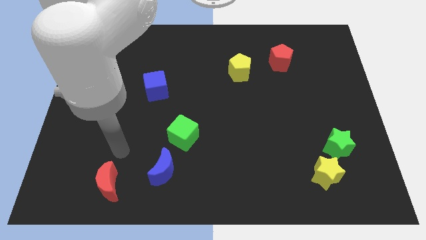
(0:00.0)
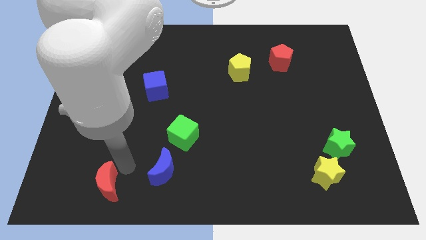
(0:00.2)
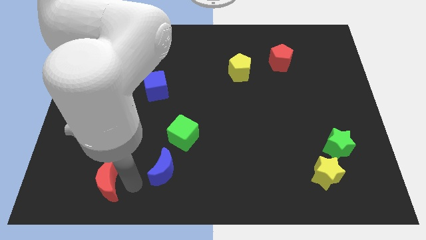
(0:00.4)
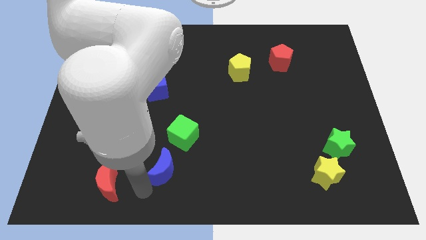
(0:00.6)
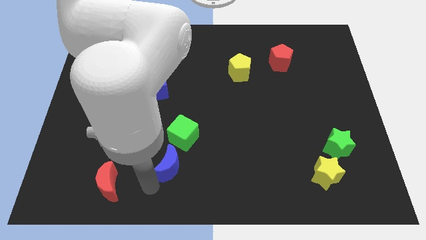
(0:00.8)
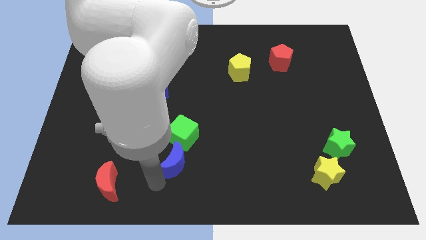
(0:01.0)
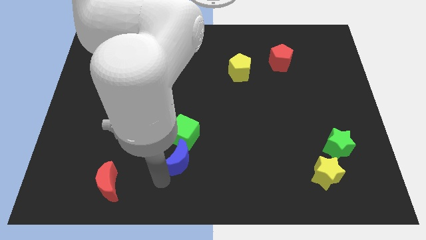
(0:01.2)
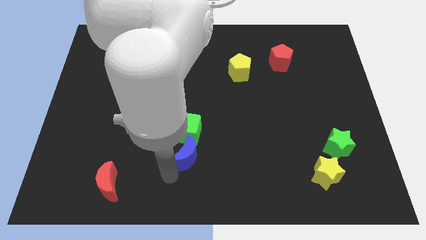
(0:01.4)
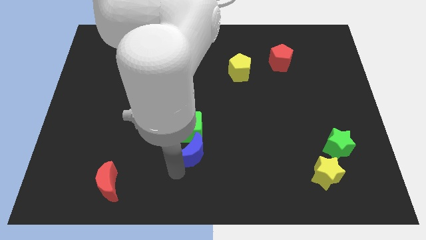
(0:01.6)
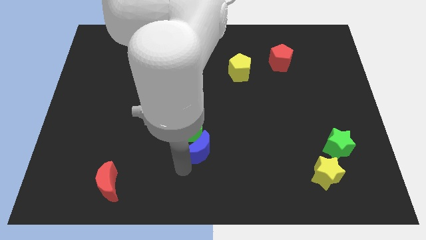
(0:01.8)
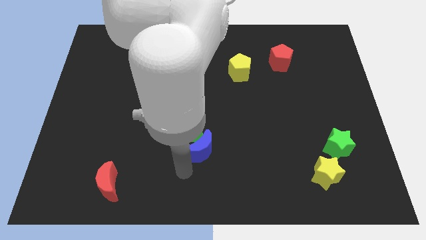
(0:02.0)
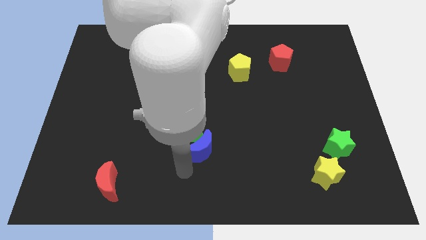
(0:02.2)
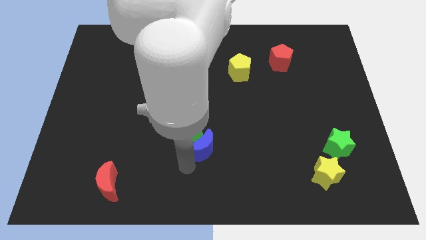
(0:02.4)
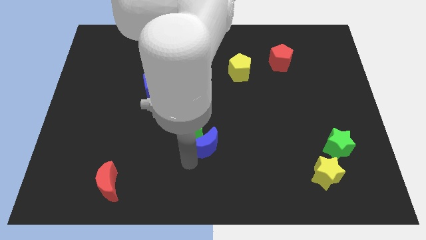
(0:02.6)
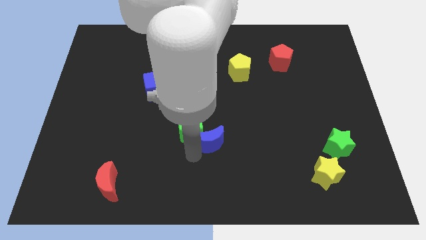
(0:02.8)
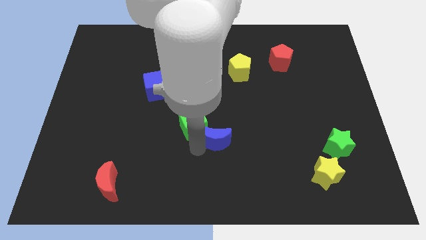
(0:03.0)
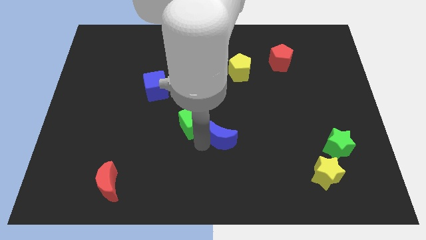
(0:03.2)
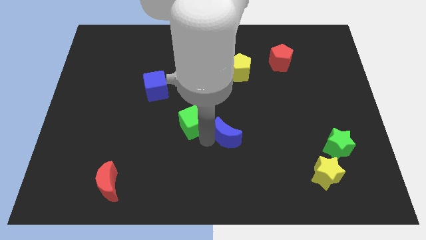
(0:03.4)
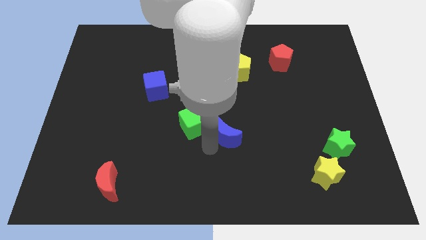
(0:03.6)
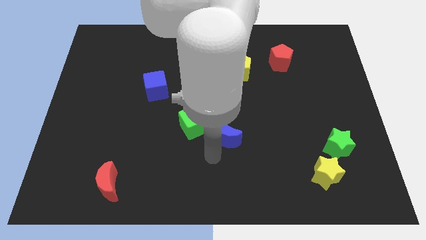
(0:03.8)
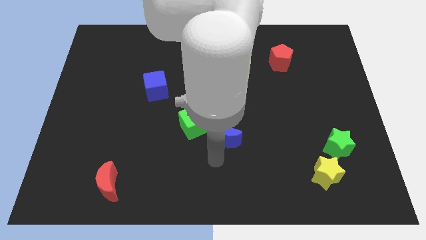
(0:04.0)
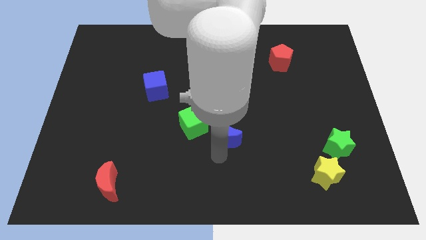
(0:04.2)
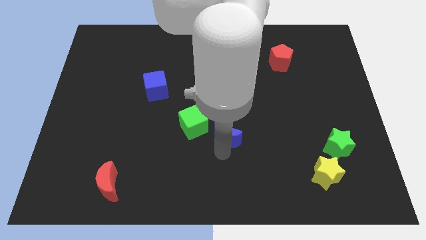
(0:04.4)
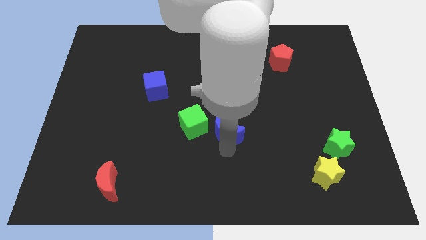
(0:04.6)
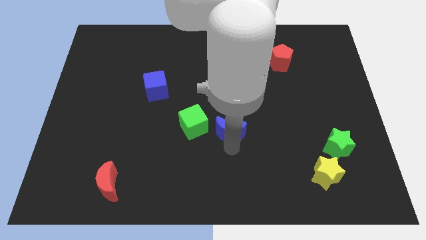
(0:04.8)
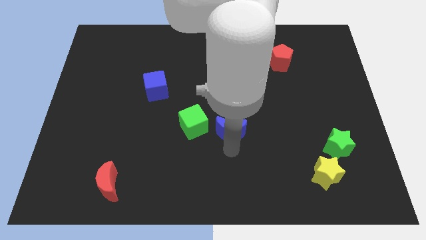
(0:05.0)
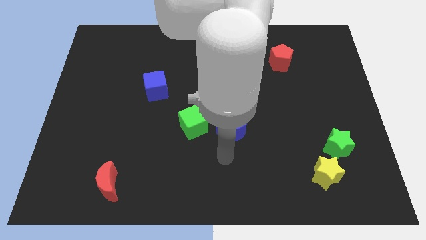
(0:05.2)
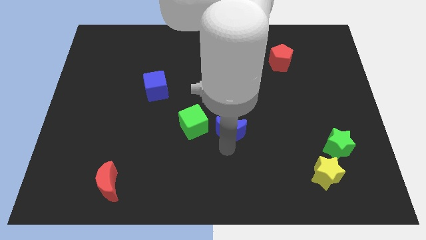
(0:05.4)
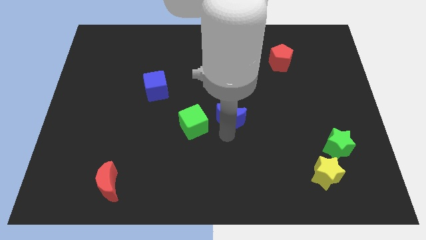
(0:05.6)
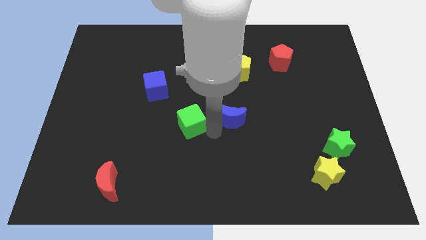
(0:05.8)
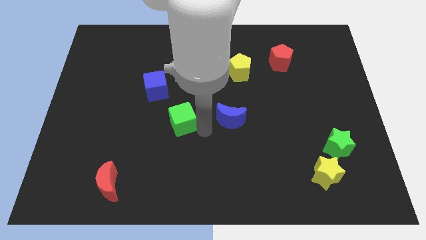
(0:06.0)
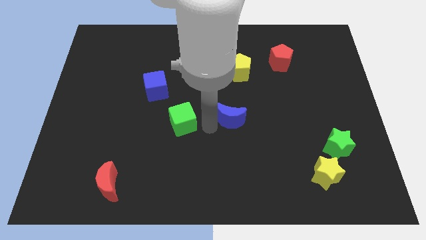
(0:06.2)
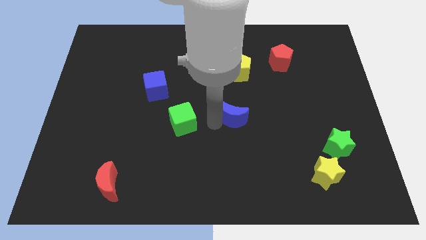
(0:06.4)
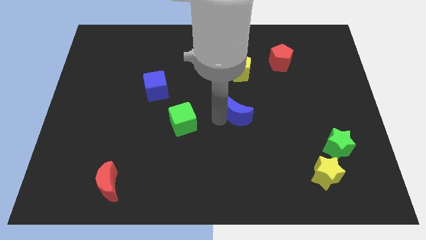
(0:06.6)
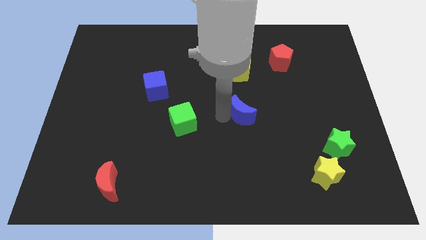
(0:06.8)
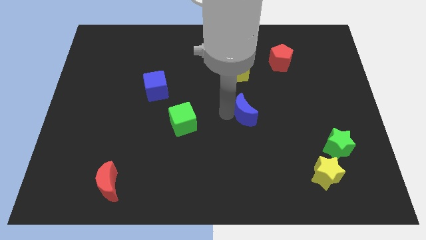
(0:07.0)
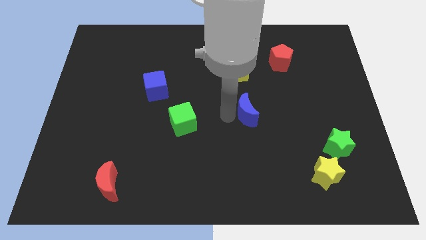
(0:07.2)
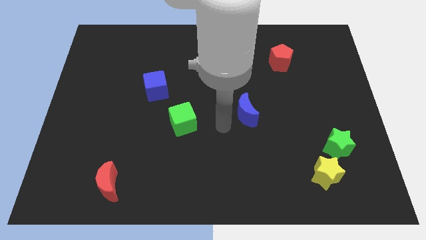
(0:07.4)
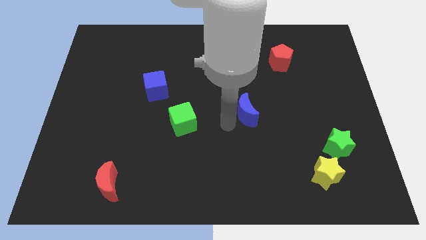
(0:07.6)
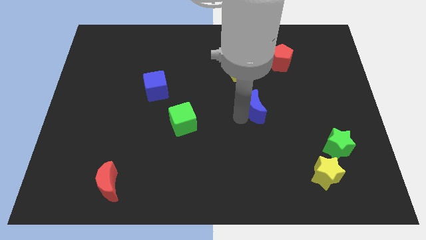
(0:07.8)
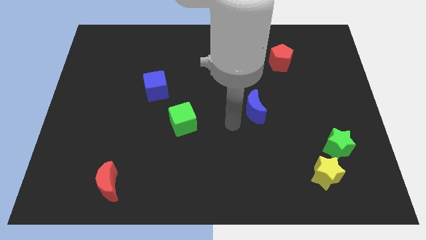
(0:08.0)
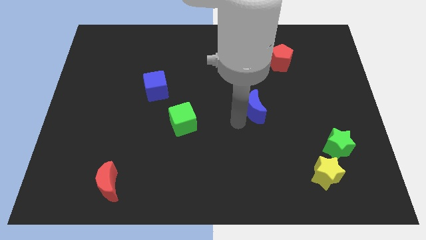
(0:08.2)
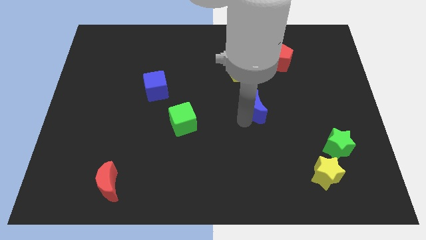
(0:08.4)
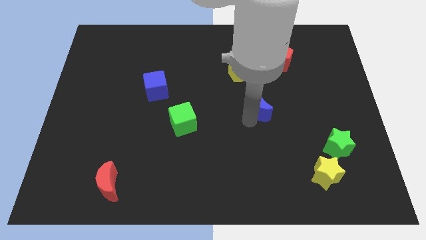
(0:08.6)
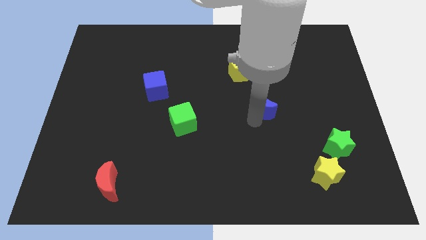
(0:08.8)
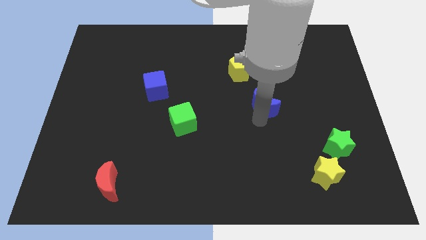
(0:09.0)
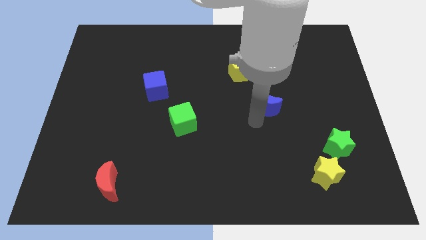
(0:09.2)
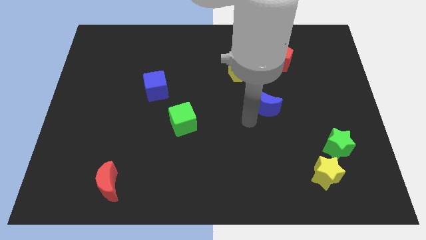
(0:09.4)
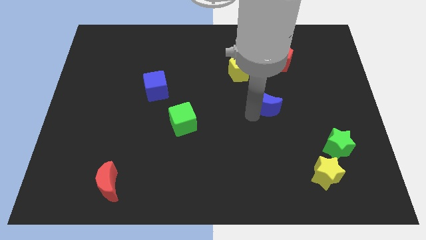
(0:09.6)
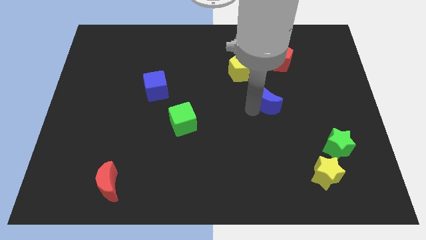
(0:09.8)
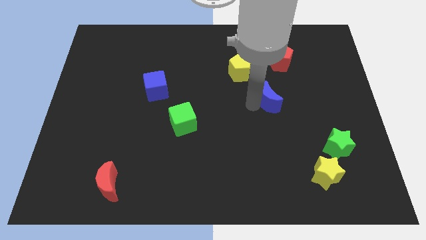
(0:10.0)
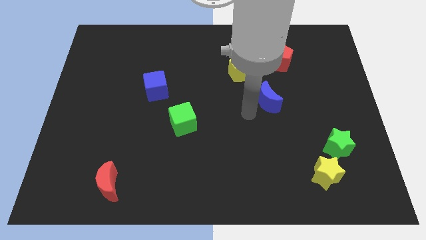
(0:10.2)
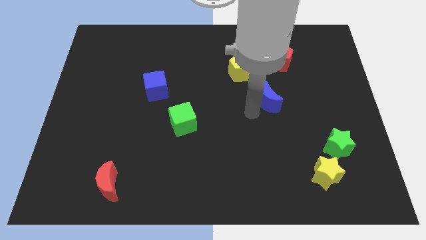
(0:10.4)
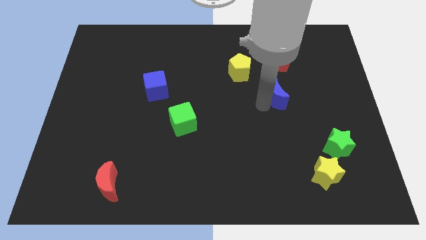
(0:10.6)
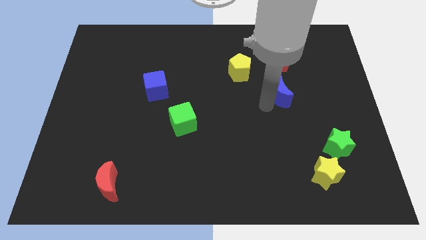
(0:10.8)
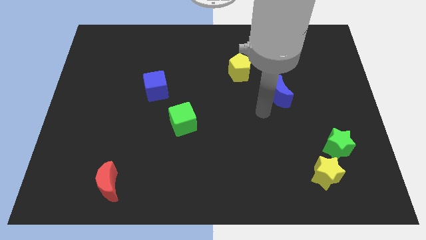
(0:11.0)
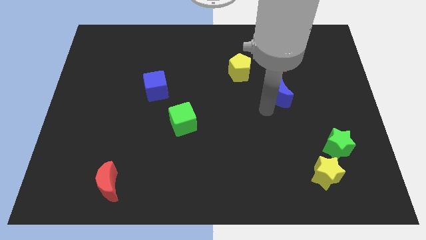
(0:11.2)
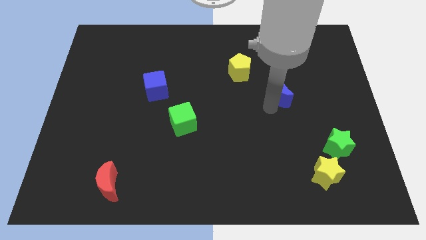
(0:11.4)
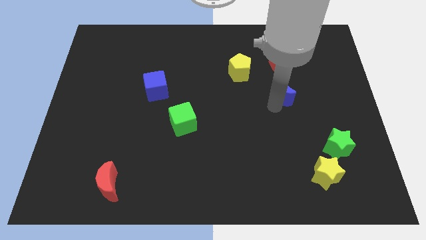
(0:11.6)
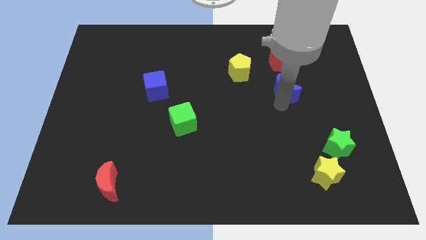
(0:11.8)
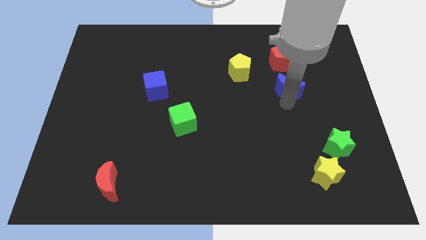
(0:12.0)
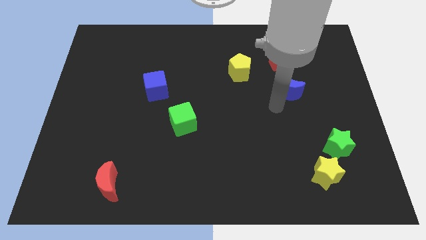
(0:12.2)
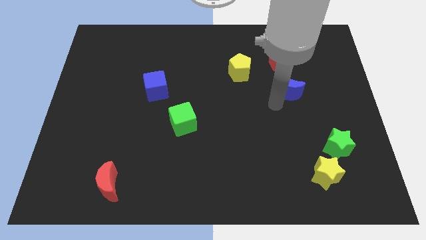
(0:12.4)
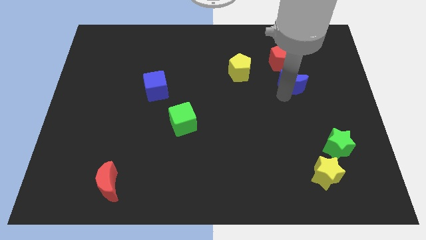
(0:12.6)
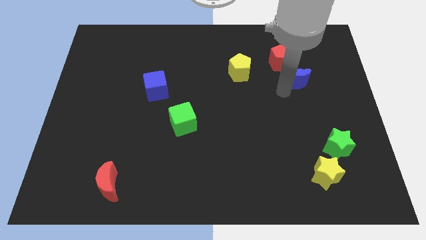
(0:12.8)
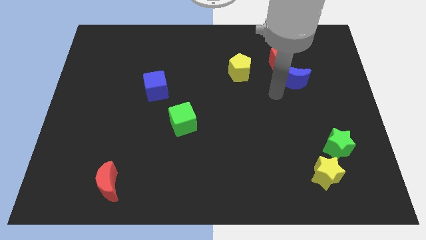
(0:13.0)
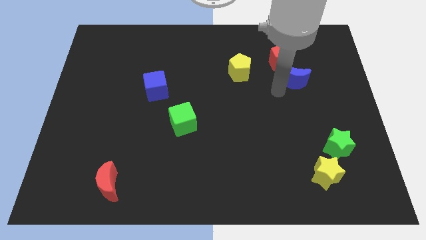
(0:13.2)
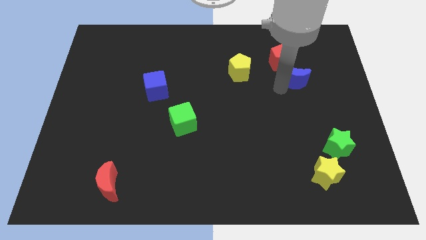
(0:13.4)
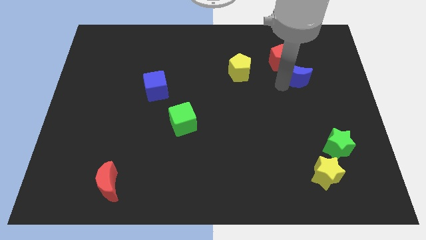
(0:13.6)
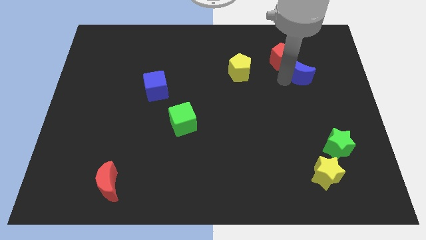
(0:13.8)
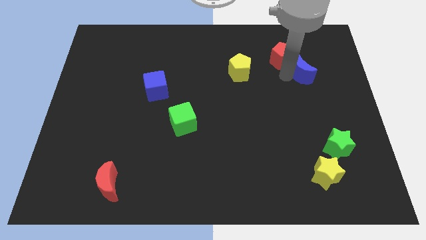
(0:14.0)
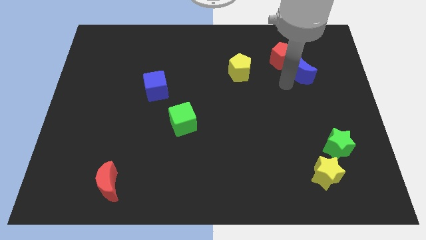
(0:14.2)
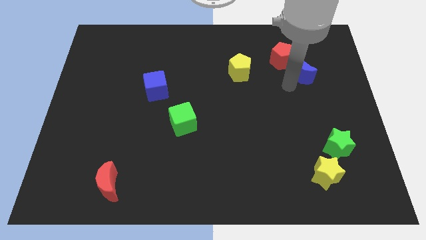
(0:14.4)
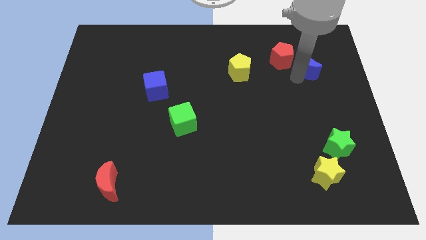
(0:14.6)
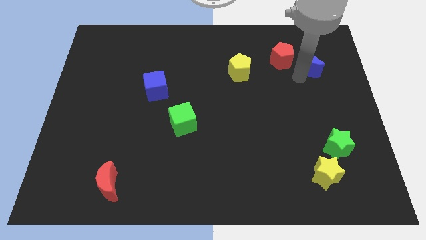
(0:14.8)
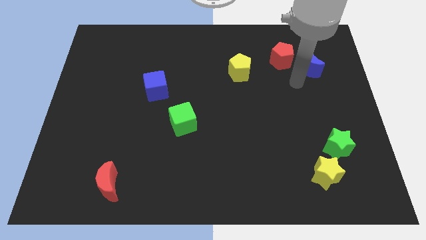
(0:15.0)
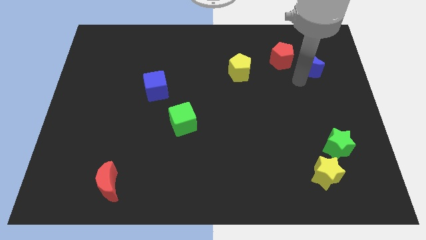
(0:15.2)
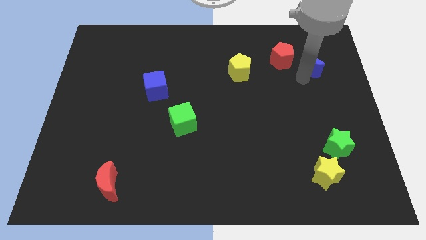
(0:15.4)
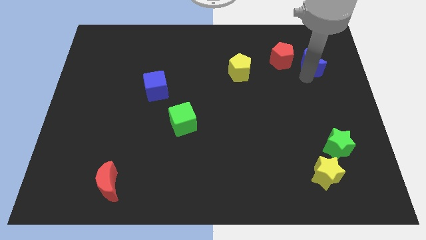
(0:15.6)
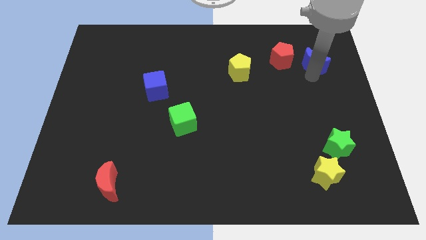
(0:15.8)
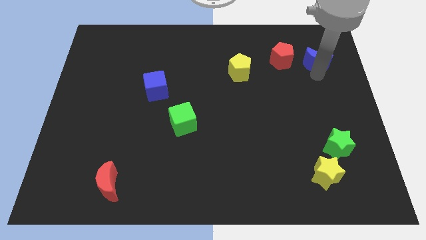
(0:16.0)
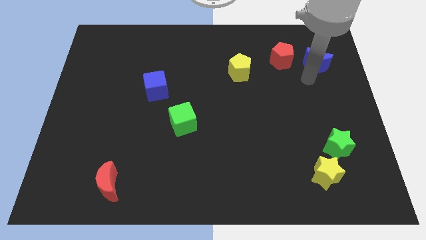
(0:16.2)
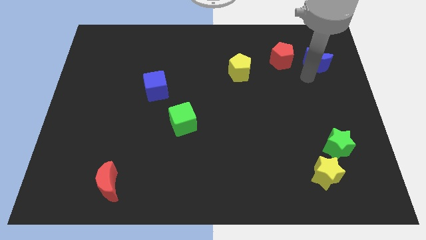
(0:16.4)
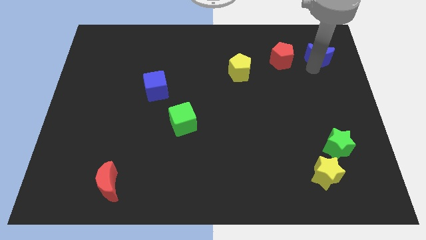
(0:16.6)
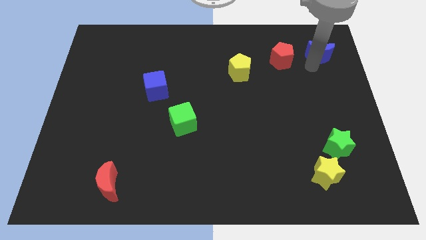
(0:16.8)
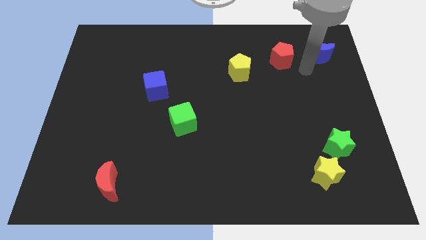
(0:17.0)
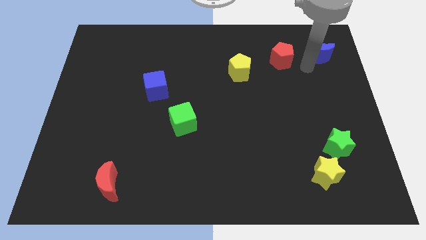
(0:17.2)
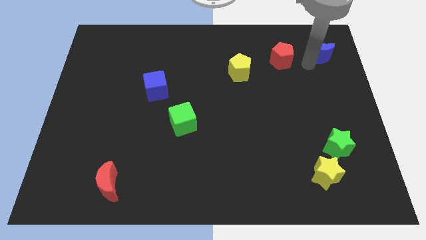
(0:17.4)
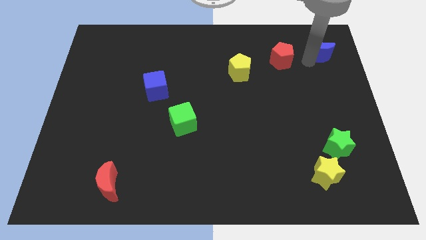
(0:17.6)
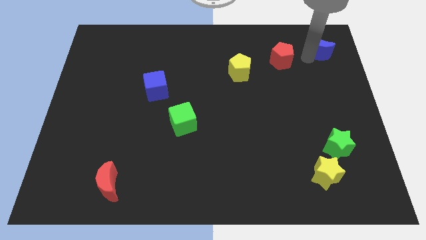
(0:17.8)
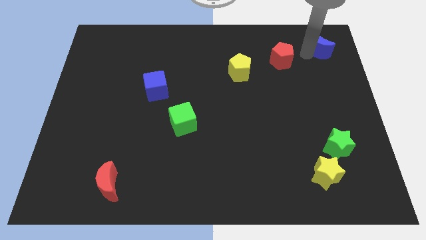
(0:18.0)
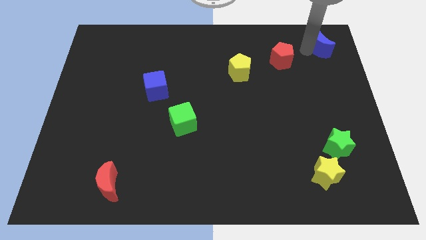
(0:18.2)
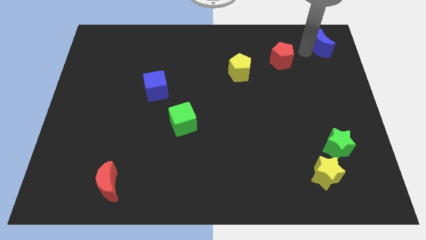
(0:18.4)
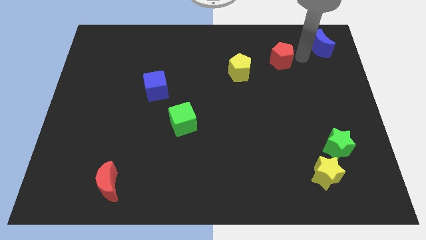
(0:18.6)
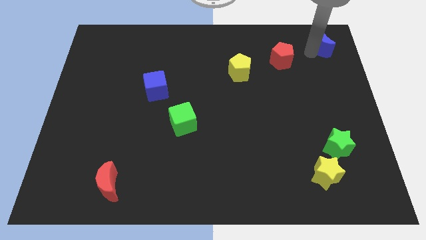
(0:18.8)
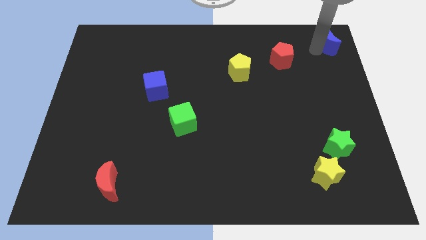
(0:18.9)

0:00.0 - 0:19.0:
push the blue moon to the top right
